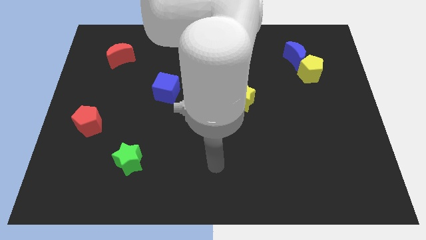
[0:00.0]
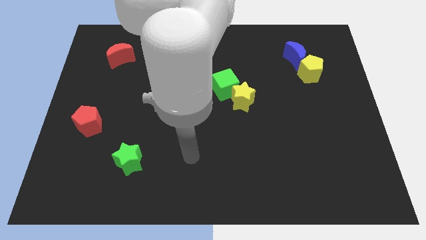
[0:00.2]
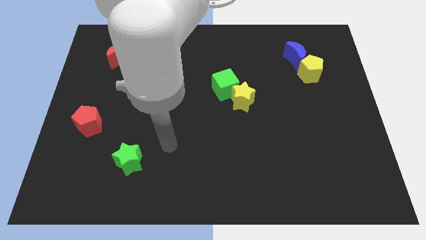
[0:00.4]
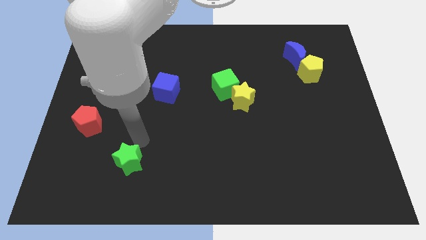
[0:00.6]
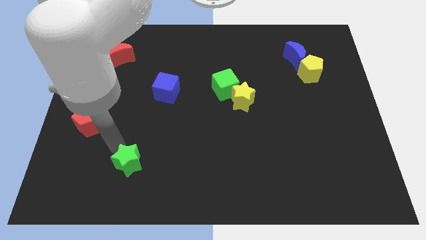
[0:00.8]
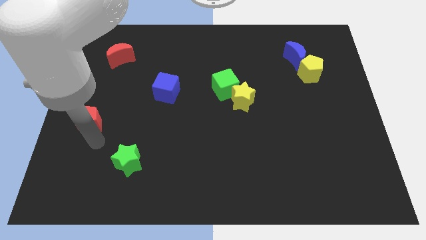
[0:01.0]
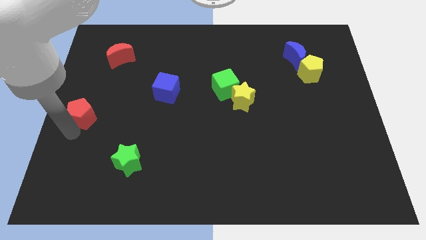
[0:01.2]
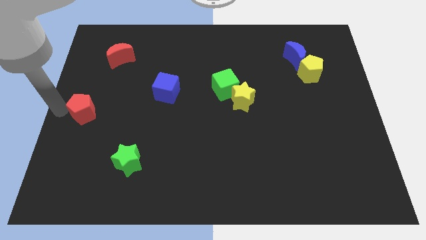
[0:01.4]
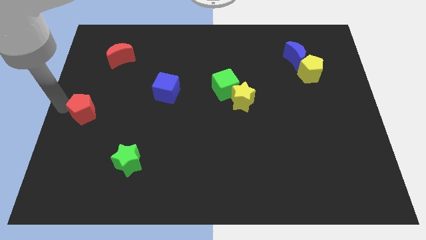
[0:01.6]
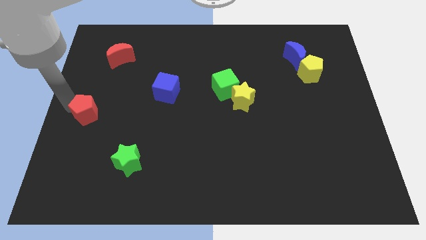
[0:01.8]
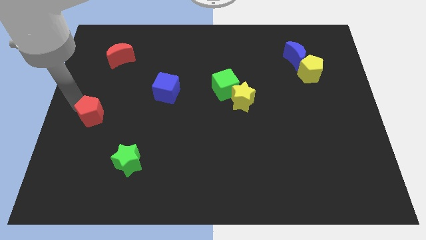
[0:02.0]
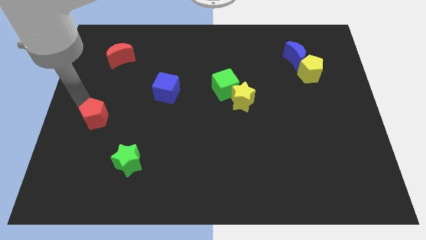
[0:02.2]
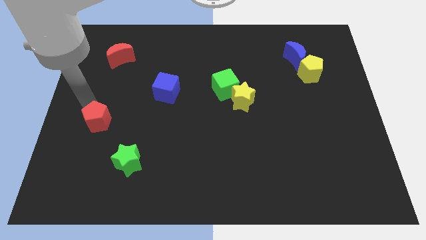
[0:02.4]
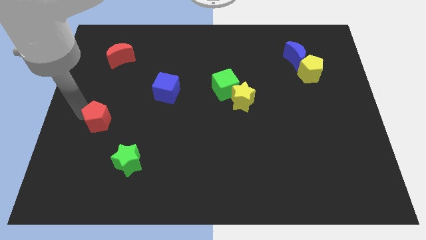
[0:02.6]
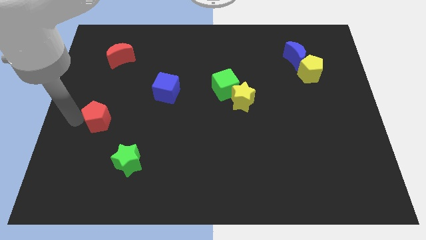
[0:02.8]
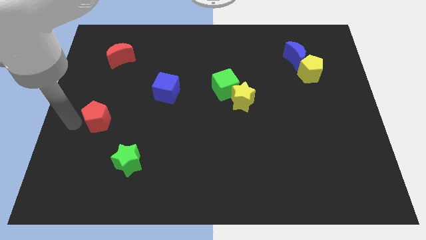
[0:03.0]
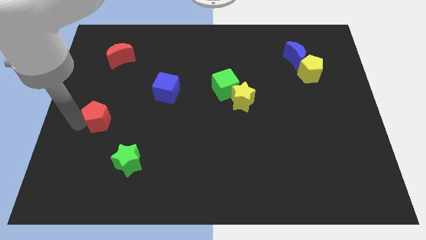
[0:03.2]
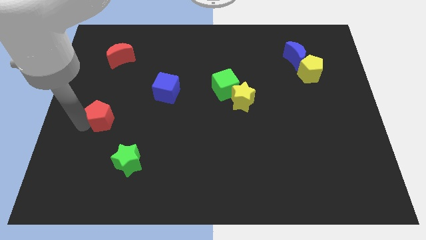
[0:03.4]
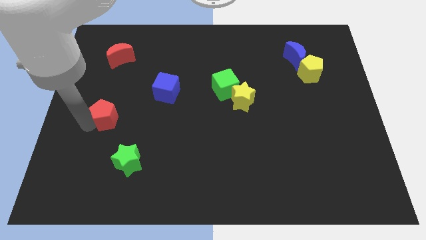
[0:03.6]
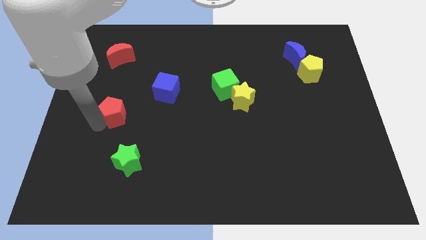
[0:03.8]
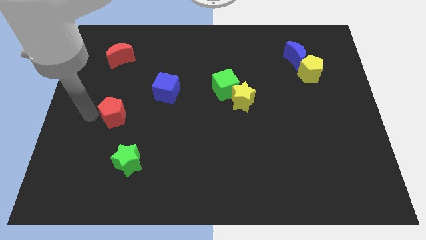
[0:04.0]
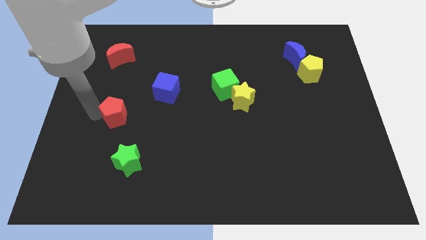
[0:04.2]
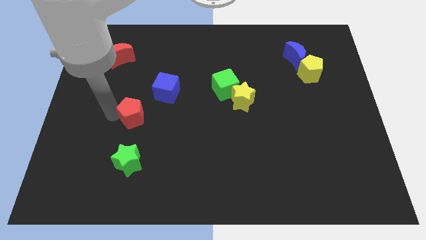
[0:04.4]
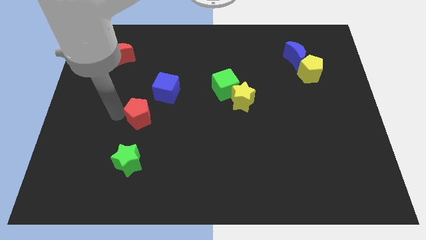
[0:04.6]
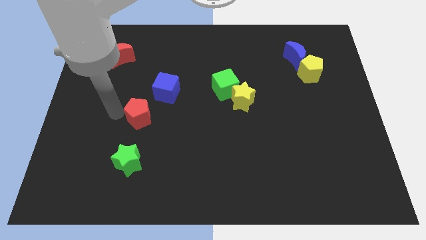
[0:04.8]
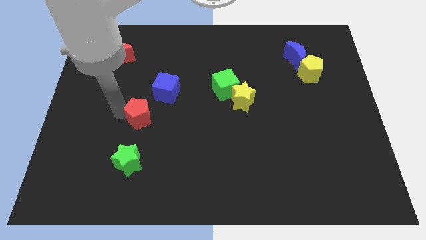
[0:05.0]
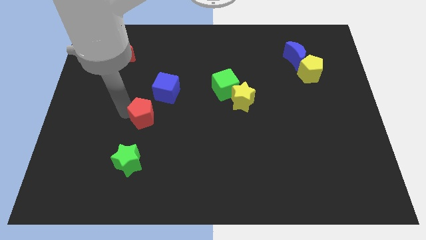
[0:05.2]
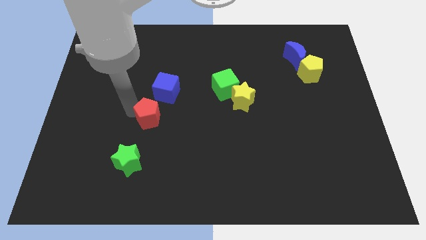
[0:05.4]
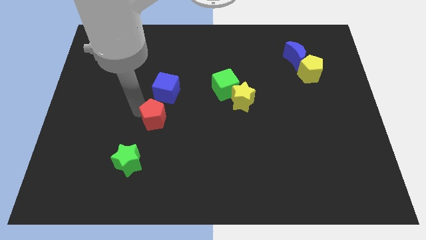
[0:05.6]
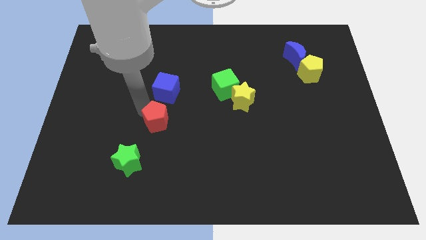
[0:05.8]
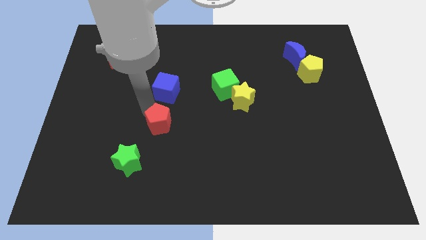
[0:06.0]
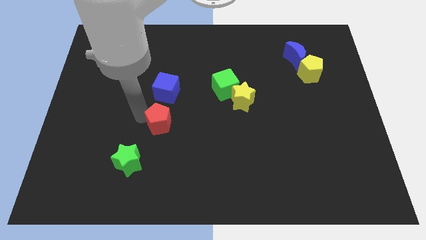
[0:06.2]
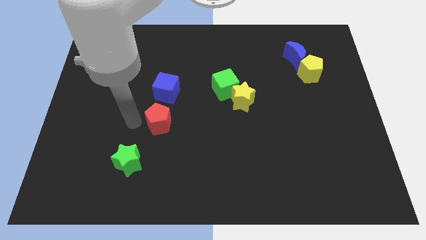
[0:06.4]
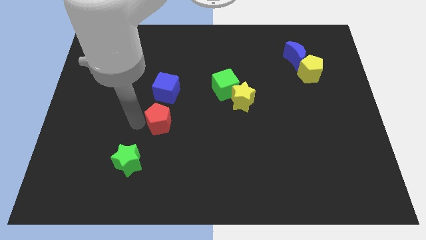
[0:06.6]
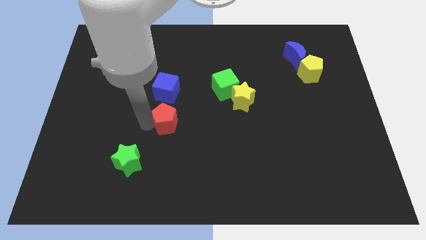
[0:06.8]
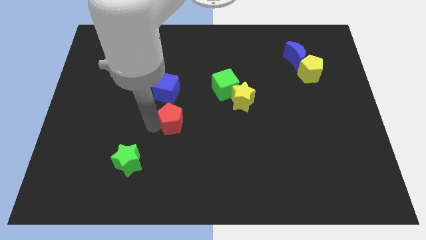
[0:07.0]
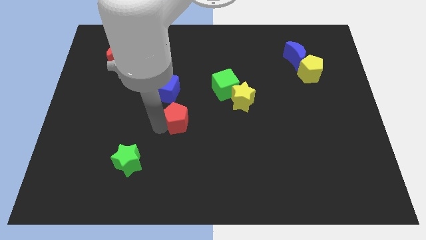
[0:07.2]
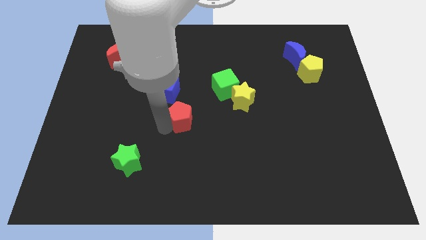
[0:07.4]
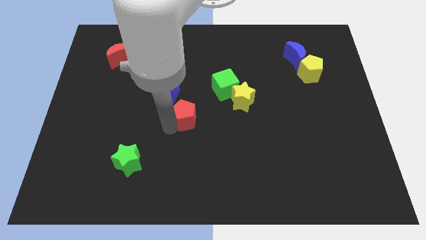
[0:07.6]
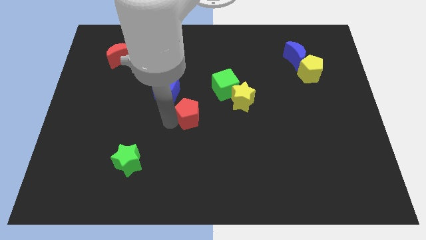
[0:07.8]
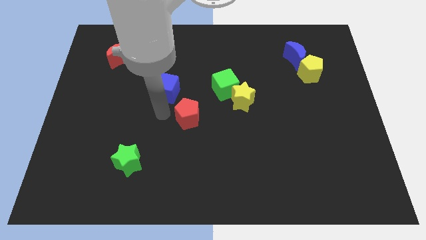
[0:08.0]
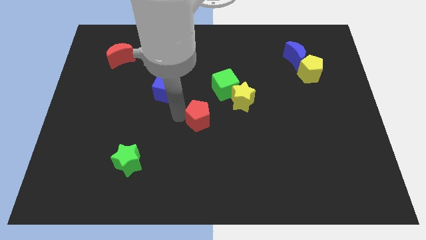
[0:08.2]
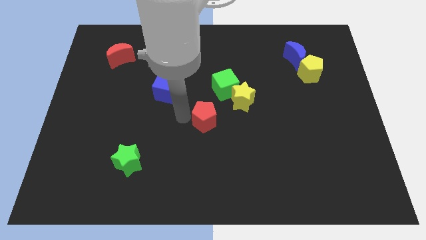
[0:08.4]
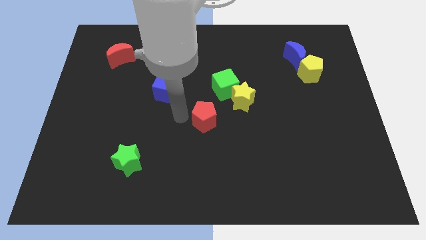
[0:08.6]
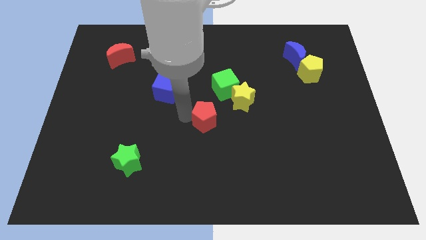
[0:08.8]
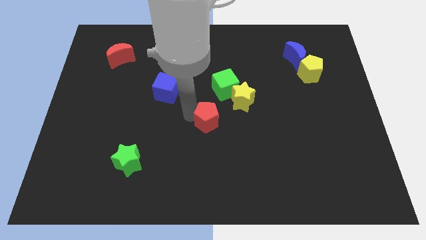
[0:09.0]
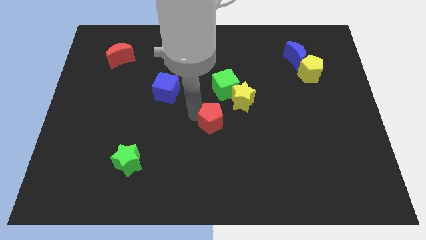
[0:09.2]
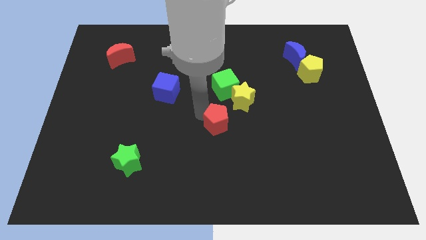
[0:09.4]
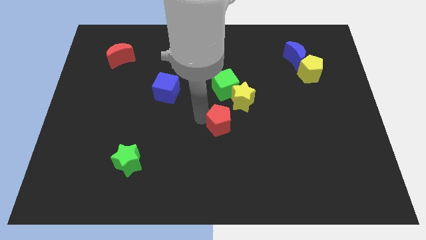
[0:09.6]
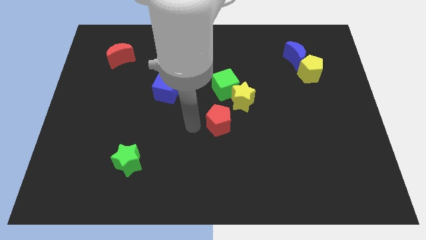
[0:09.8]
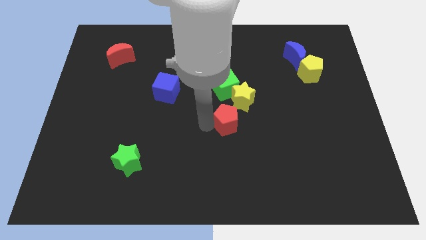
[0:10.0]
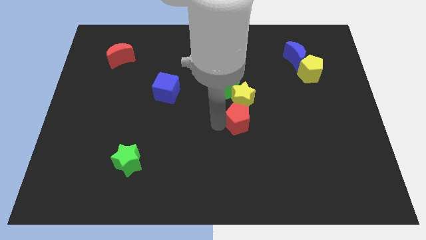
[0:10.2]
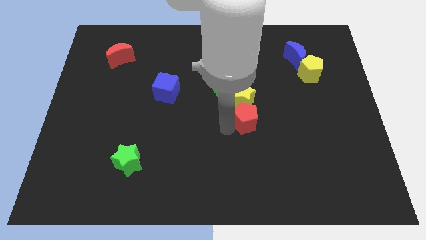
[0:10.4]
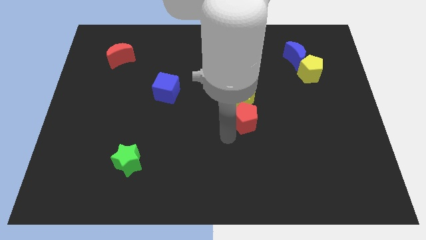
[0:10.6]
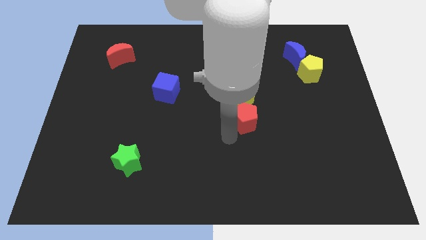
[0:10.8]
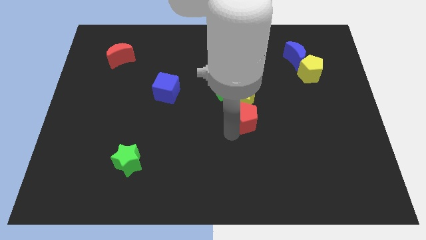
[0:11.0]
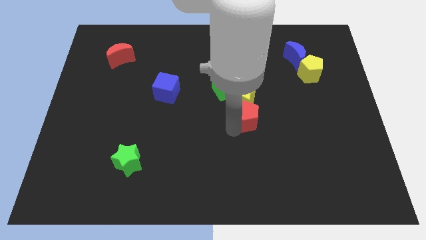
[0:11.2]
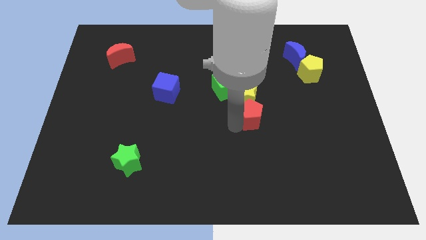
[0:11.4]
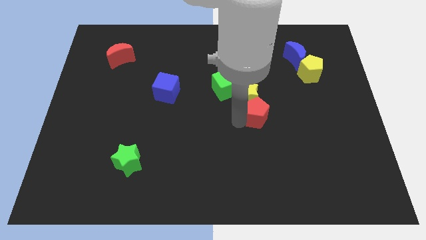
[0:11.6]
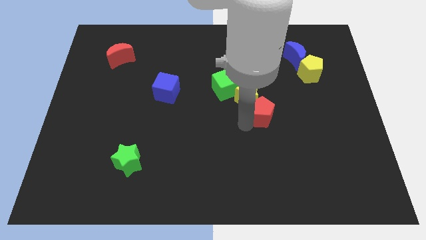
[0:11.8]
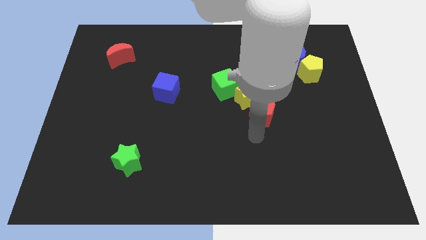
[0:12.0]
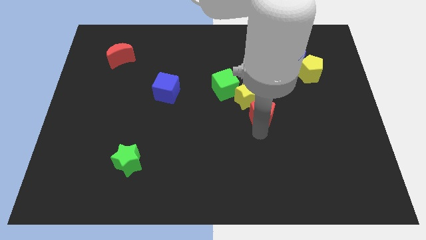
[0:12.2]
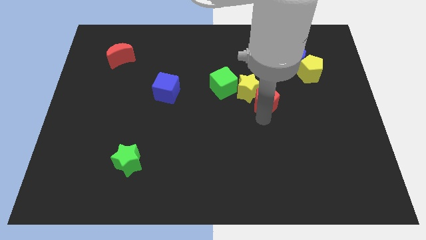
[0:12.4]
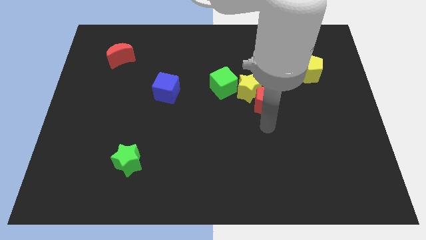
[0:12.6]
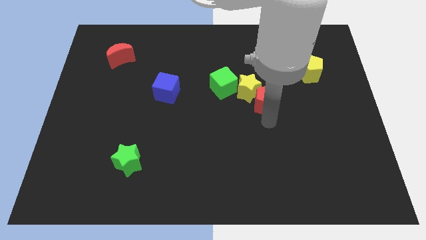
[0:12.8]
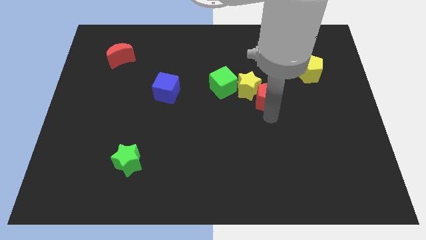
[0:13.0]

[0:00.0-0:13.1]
push the red pentagon to the right of the green cube
